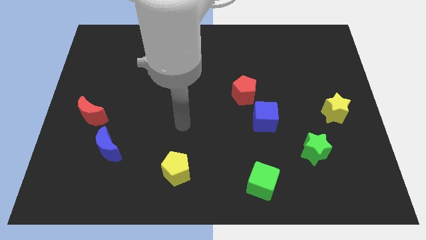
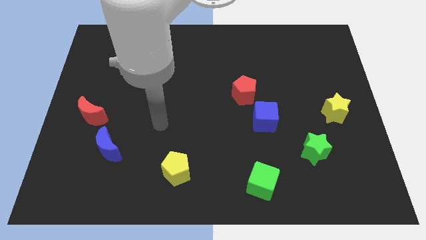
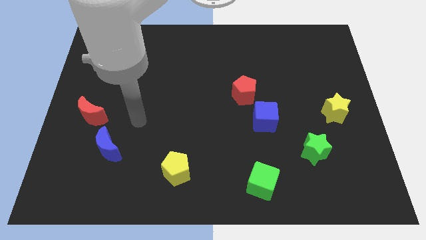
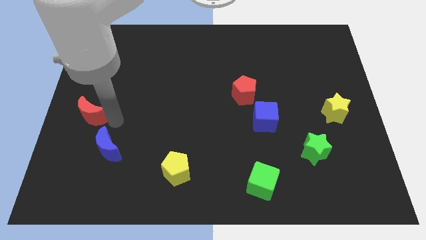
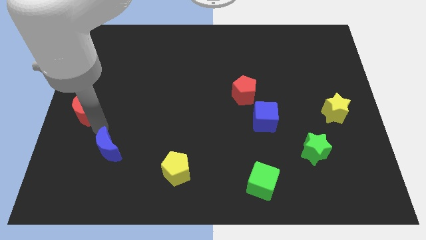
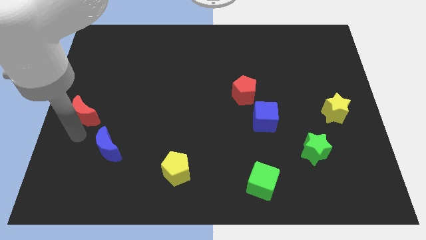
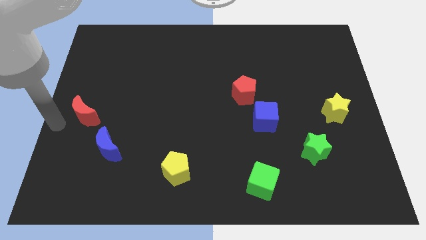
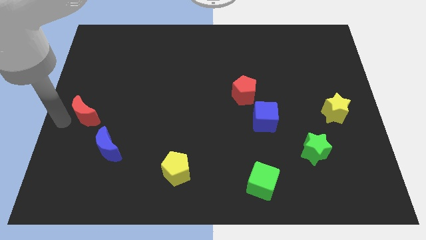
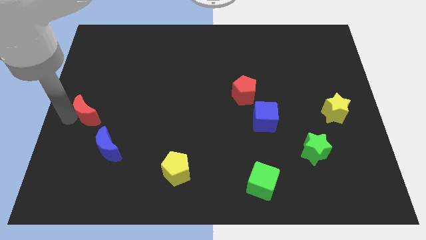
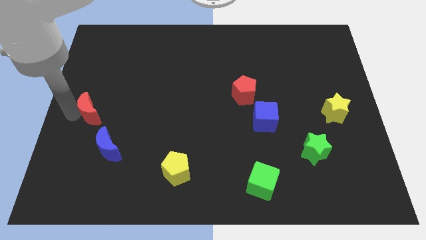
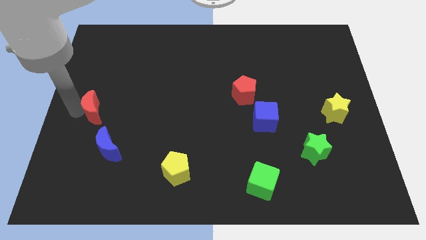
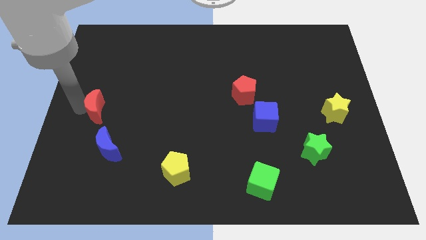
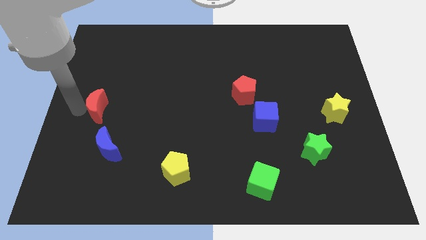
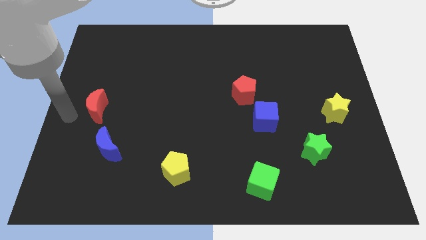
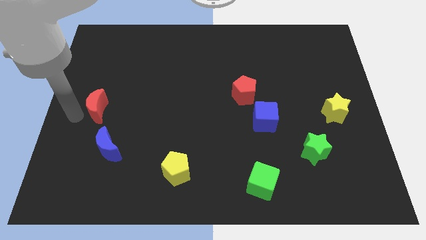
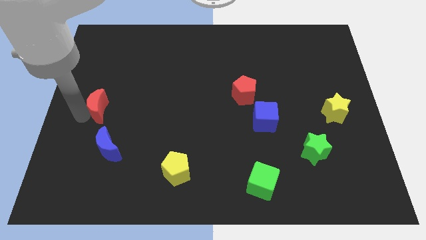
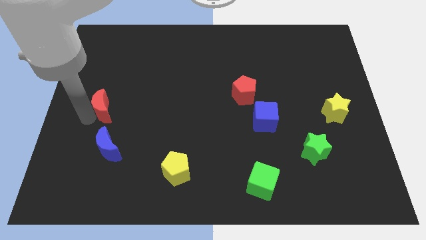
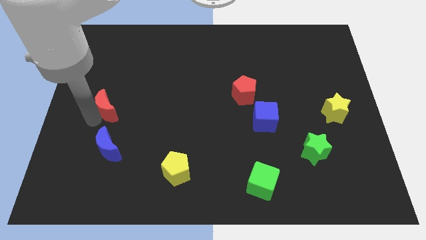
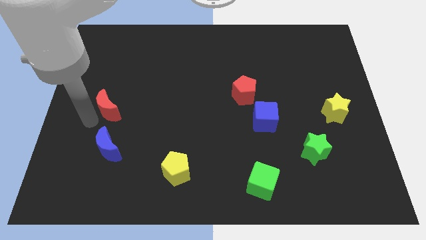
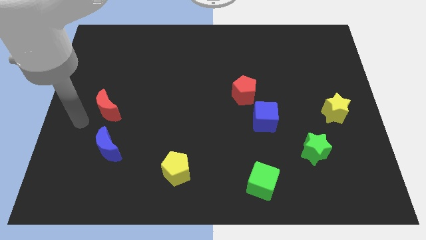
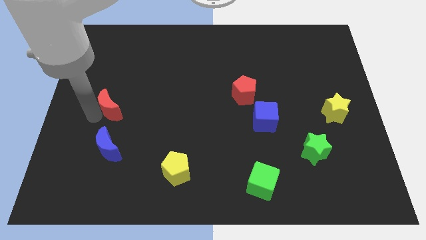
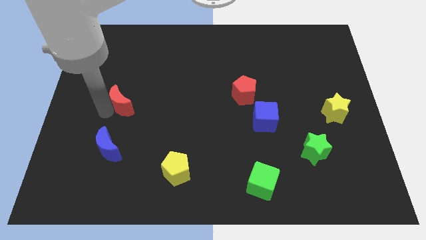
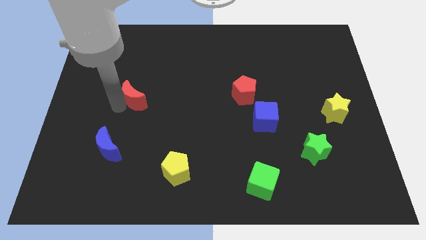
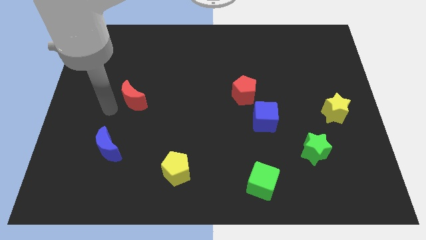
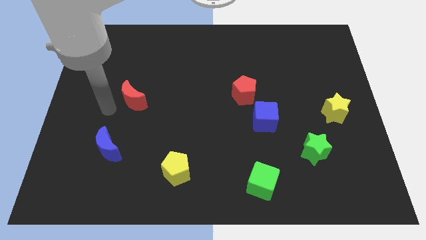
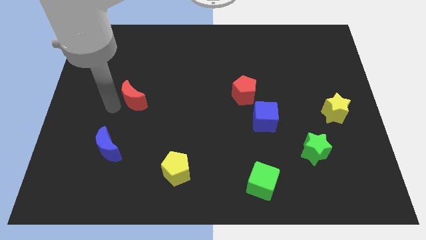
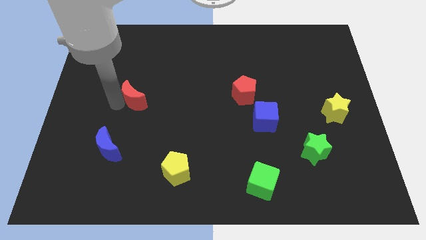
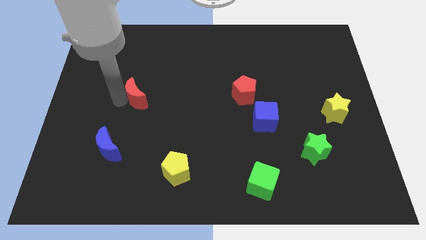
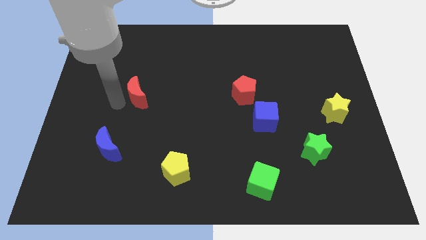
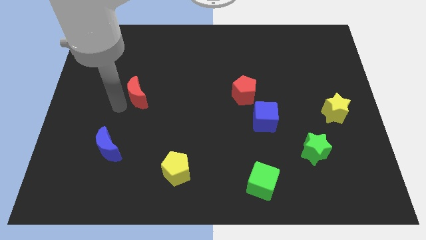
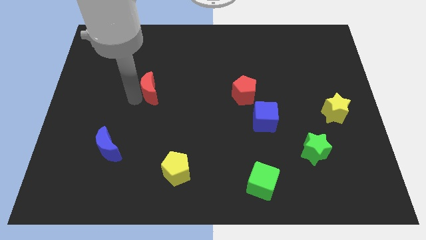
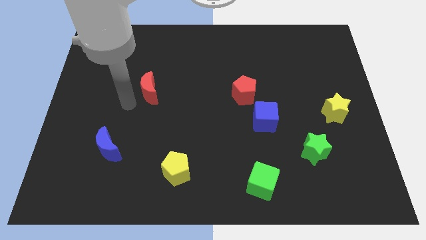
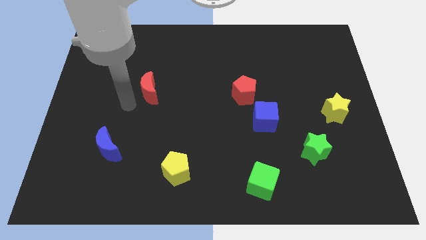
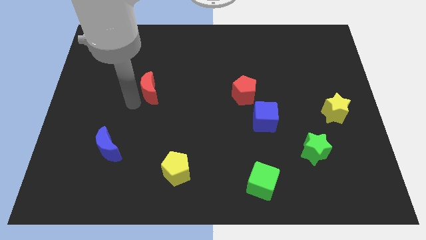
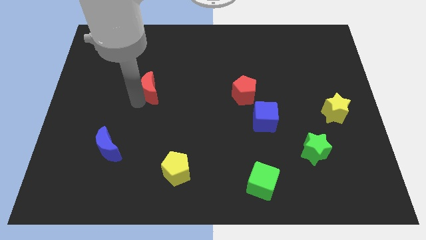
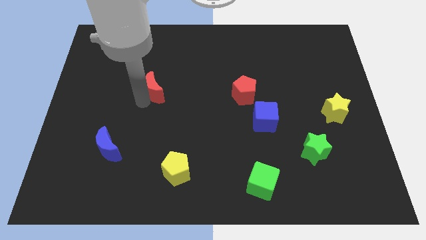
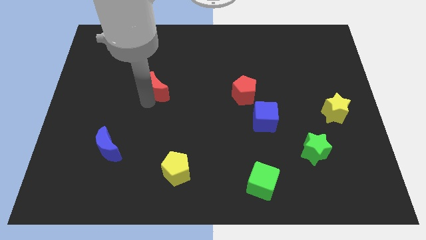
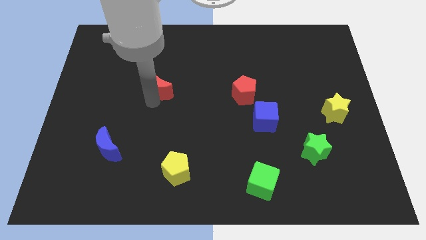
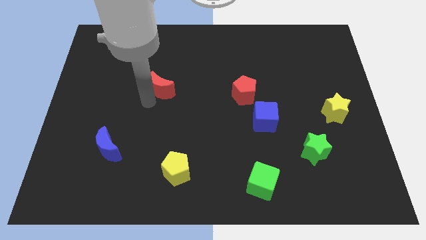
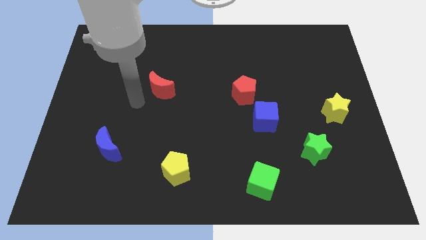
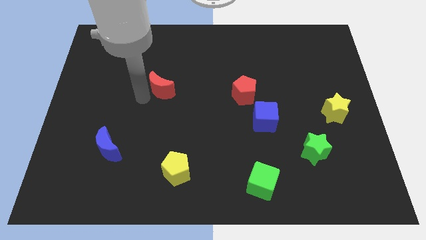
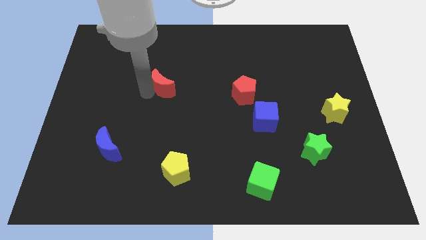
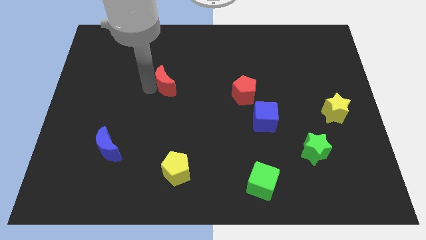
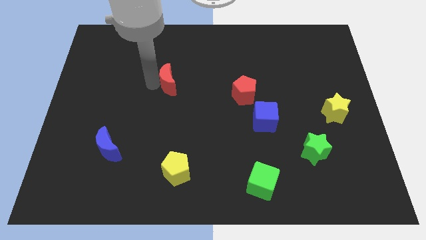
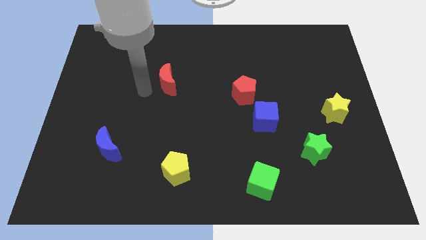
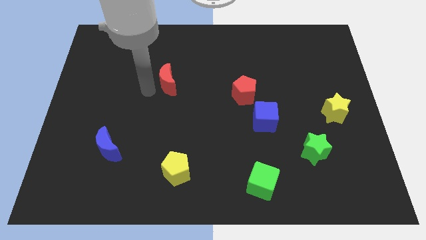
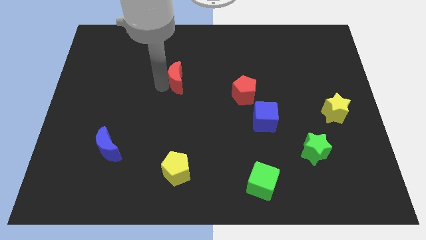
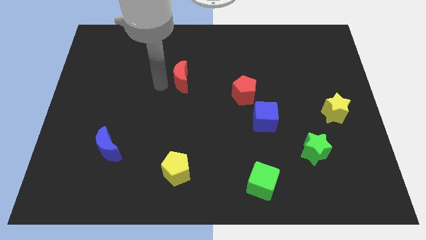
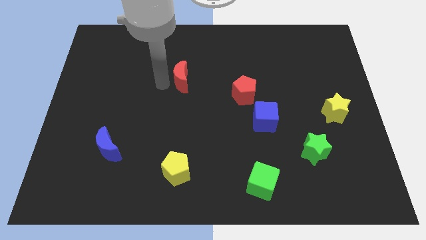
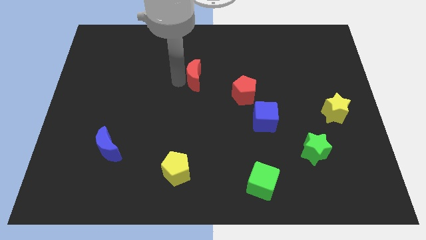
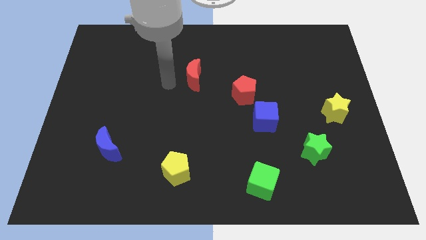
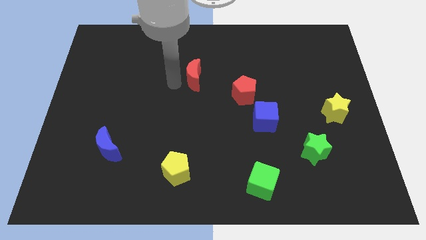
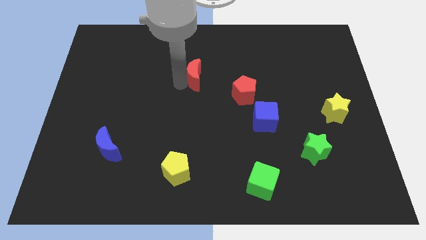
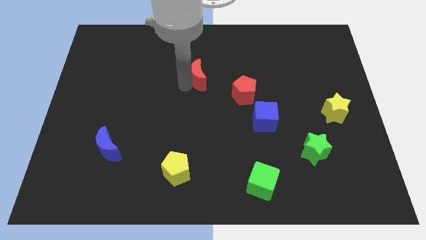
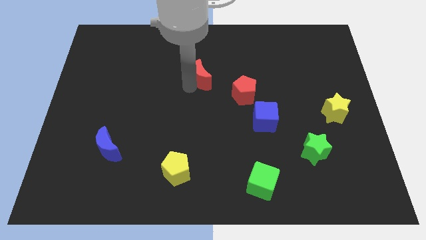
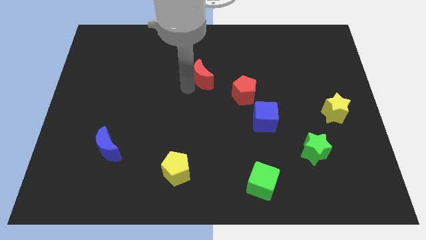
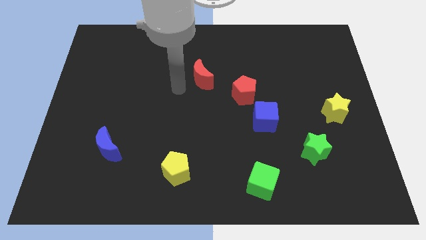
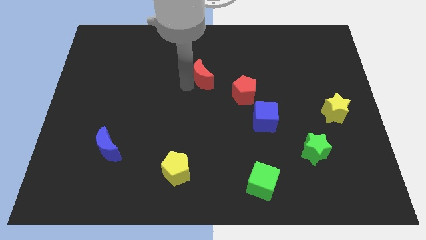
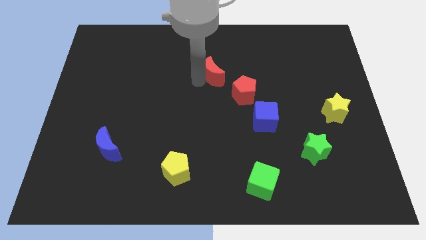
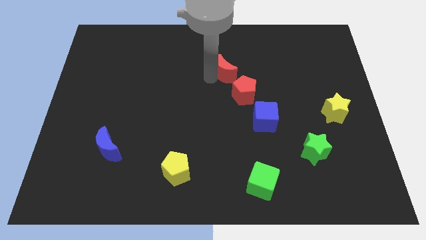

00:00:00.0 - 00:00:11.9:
move the red moon to the top of the red pentagon

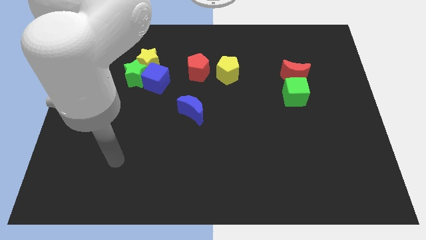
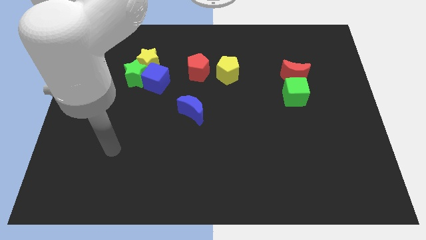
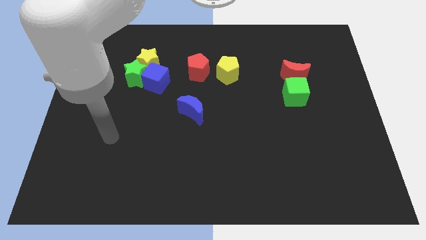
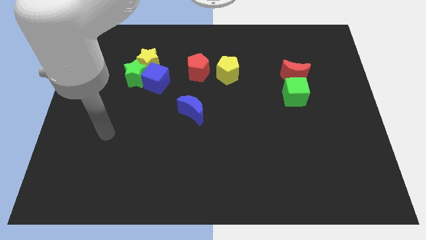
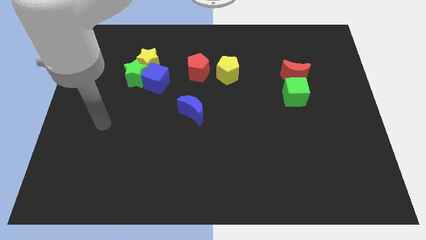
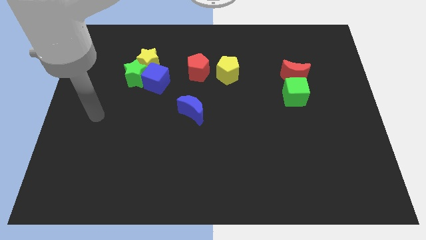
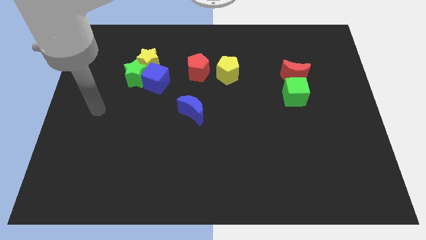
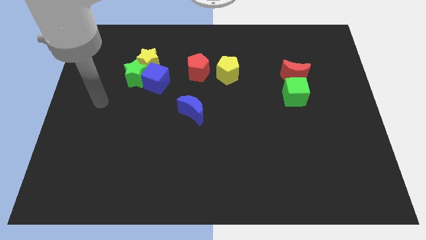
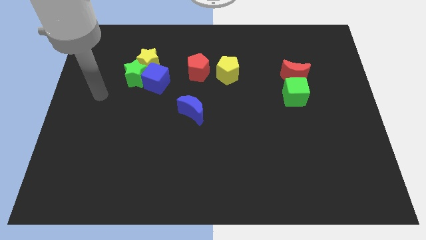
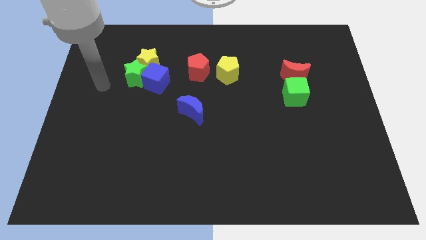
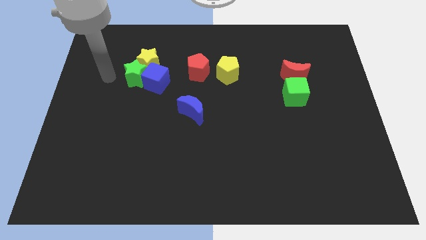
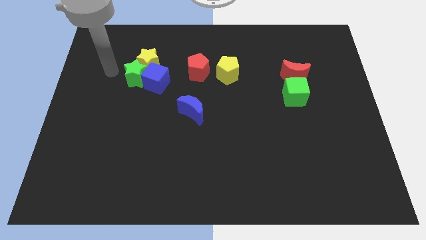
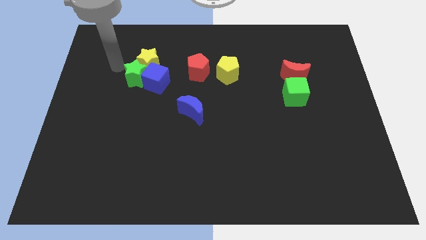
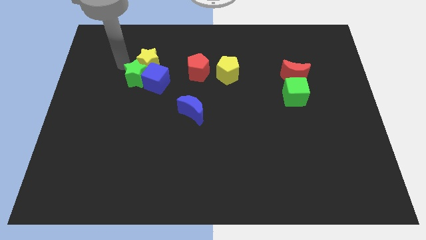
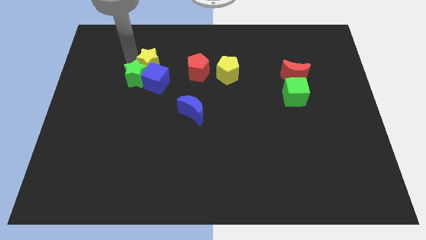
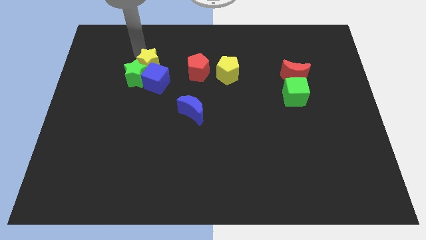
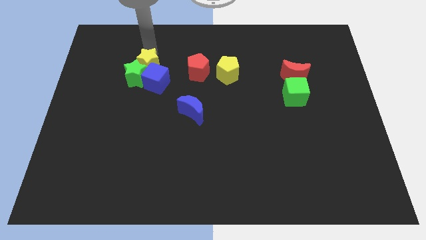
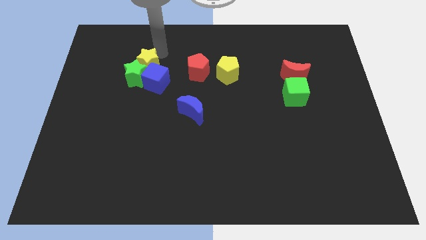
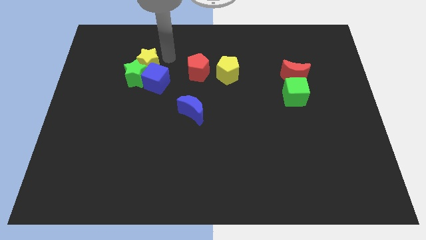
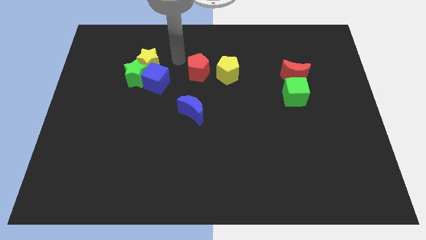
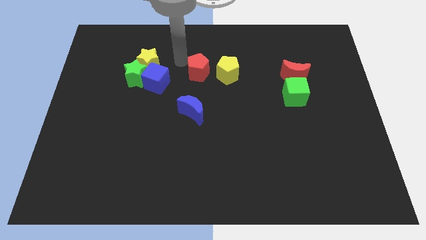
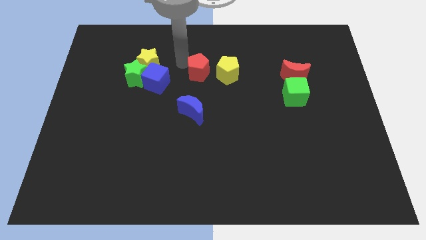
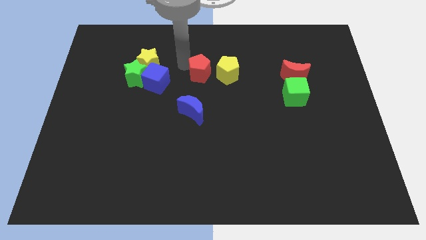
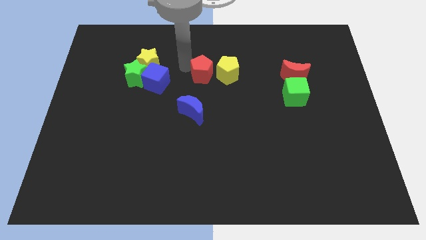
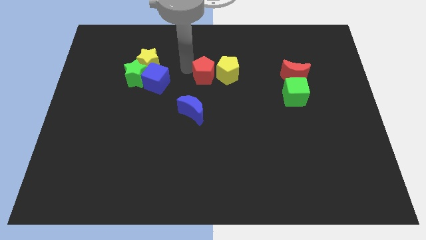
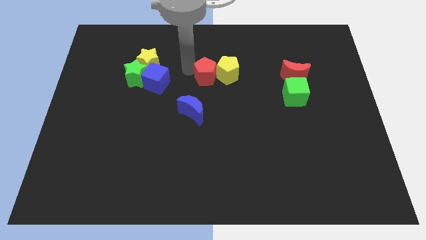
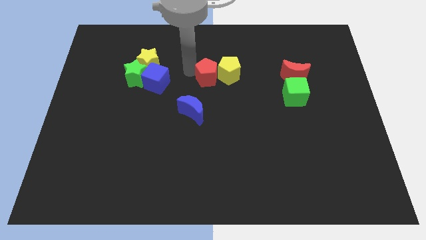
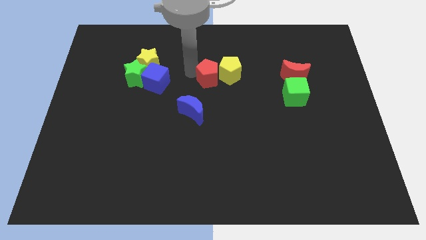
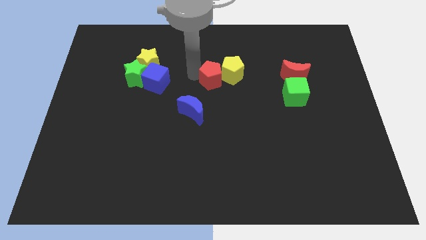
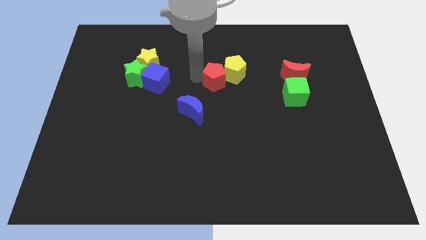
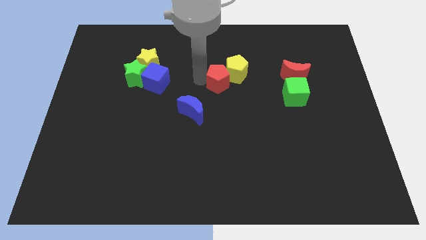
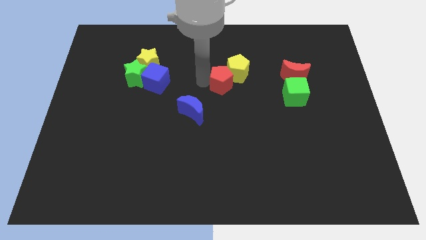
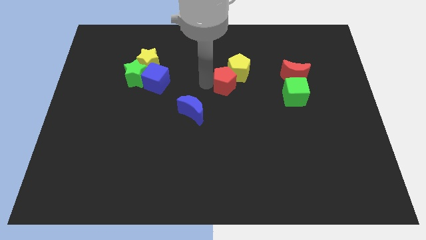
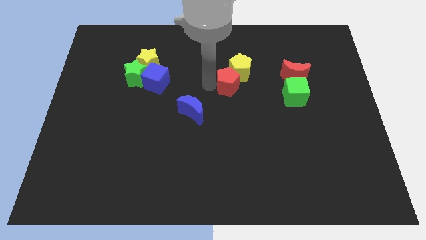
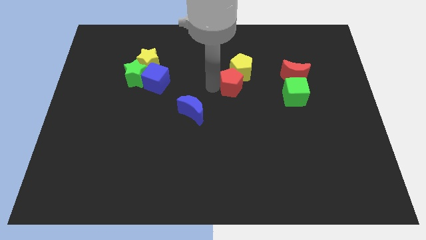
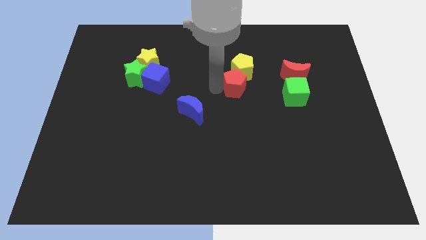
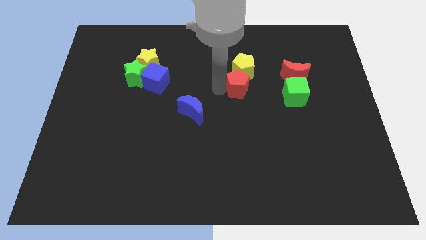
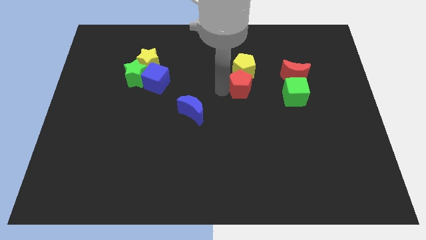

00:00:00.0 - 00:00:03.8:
push the red pentagon to the bottom right side of the yellow pentagon
